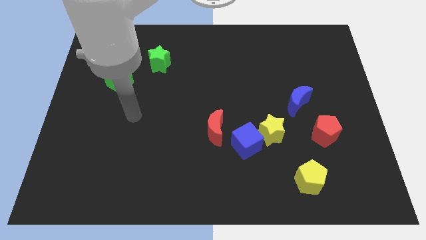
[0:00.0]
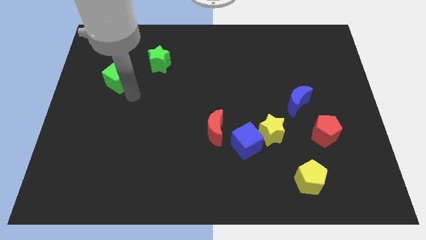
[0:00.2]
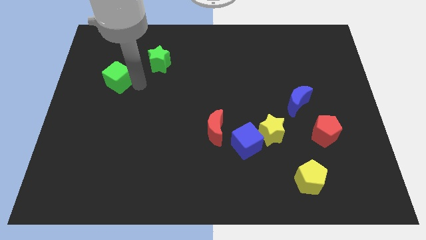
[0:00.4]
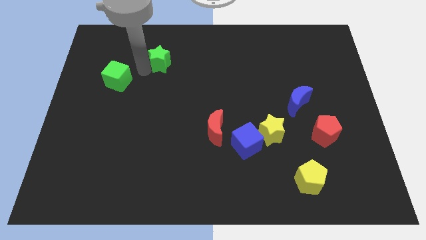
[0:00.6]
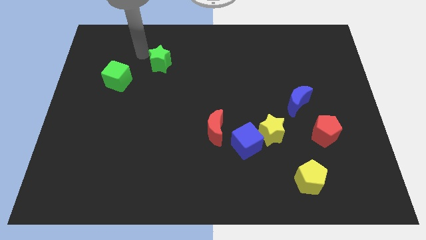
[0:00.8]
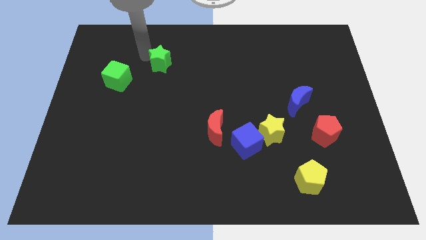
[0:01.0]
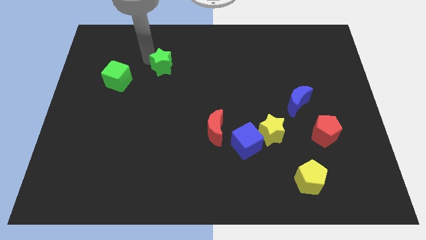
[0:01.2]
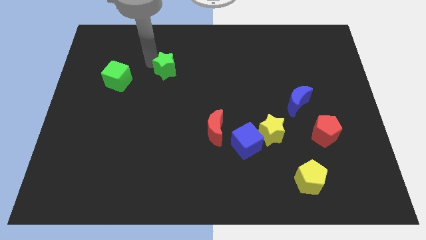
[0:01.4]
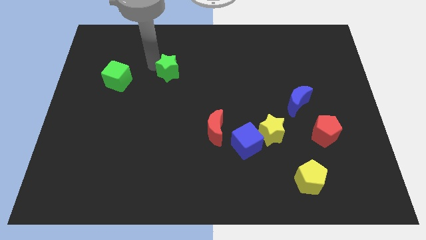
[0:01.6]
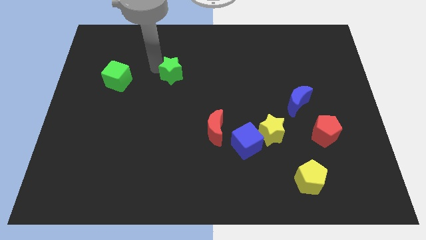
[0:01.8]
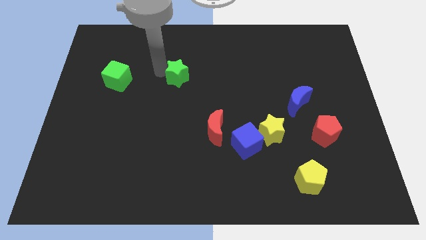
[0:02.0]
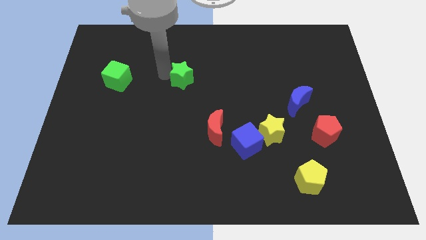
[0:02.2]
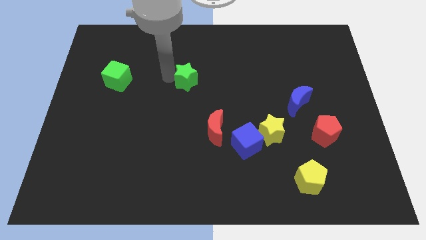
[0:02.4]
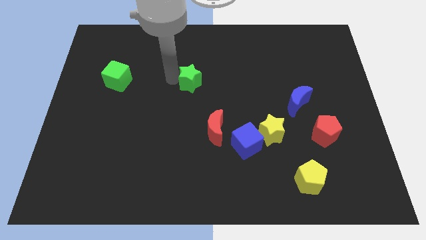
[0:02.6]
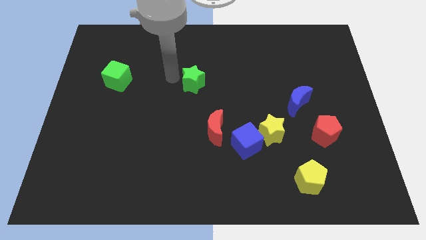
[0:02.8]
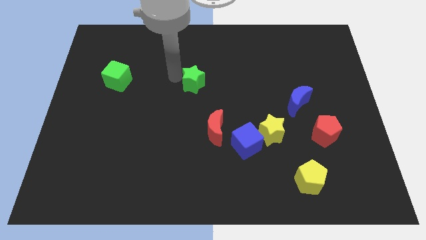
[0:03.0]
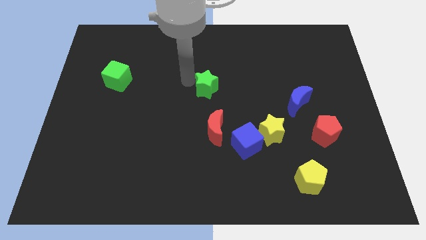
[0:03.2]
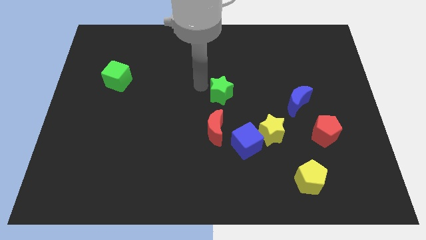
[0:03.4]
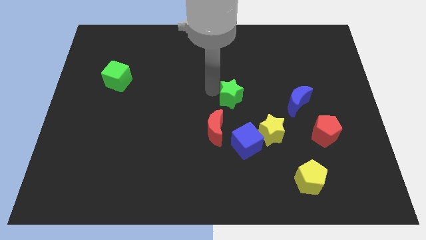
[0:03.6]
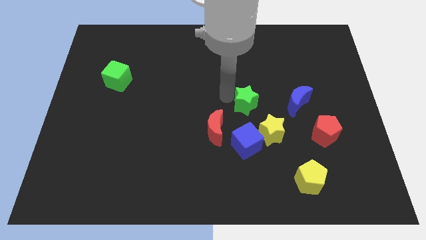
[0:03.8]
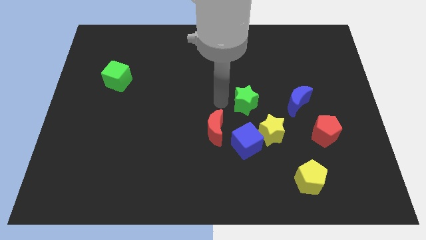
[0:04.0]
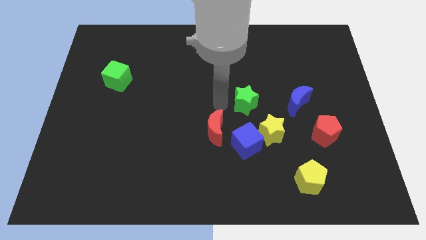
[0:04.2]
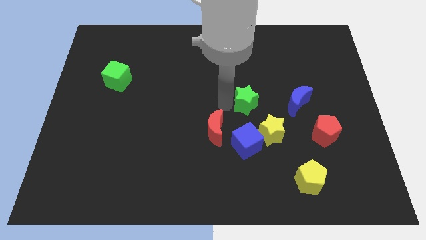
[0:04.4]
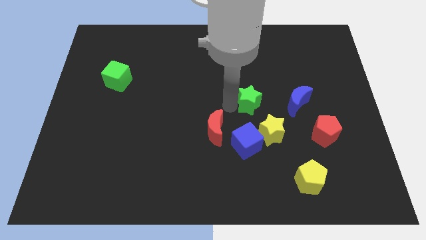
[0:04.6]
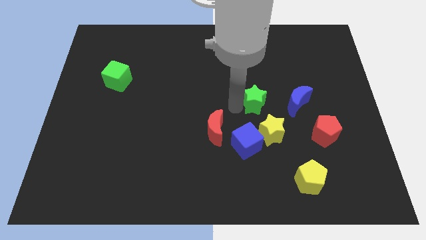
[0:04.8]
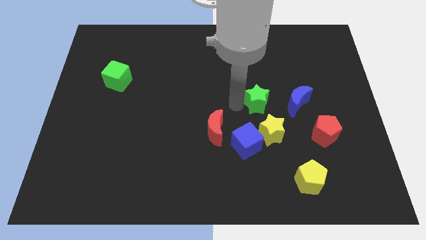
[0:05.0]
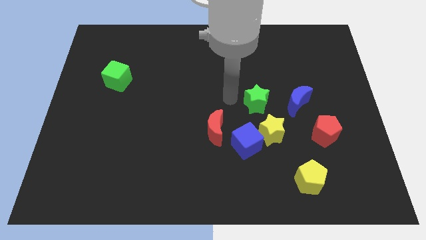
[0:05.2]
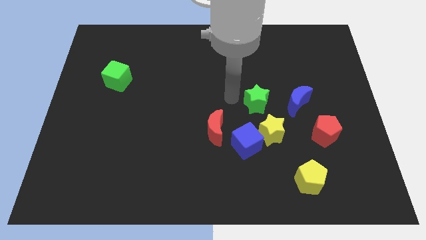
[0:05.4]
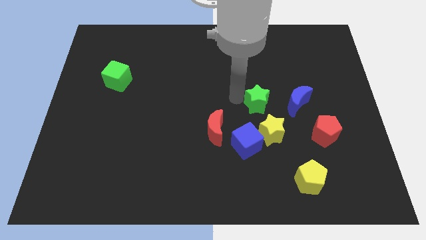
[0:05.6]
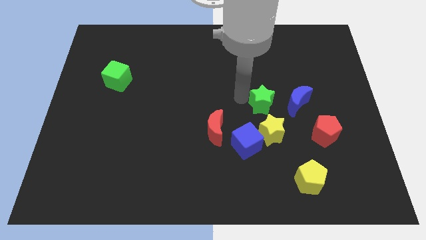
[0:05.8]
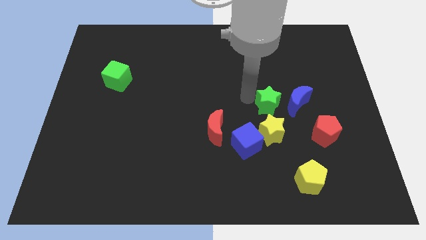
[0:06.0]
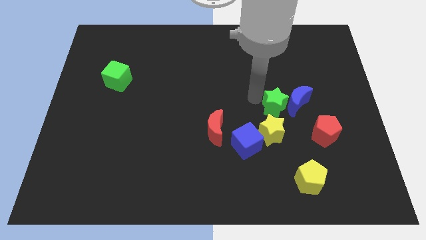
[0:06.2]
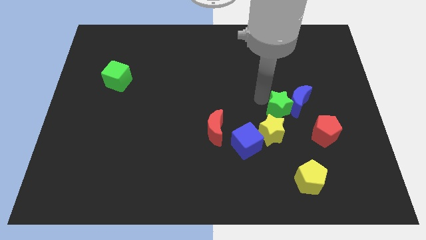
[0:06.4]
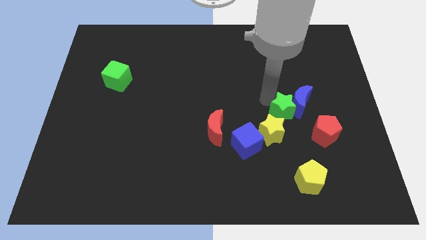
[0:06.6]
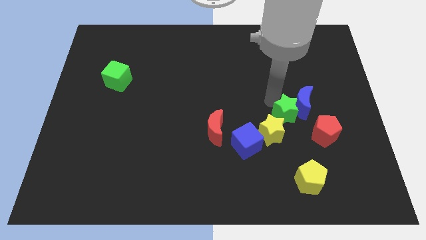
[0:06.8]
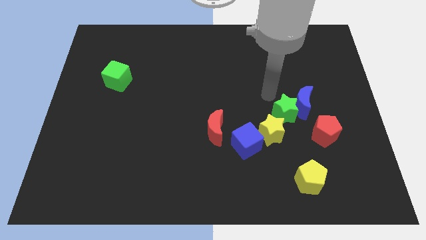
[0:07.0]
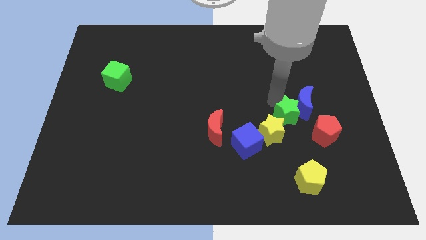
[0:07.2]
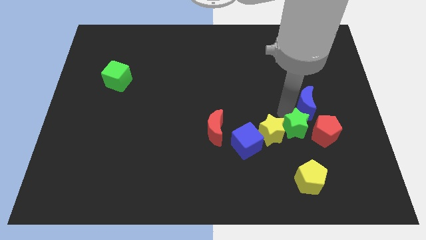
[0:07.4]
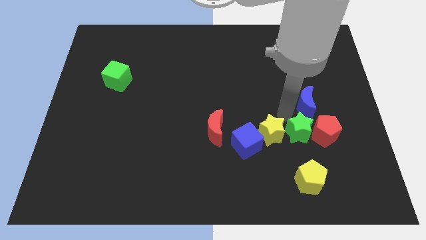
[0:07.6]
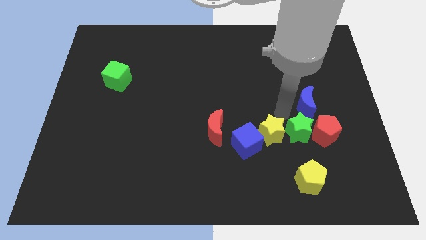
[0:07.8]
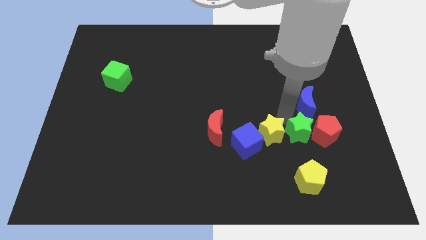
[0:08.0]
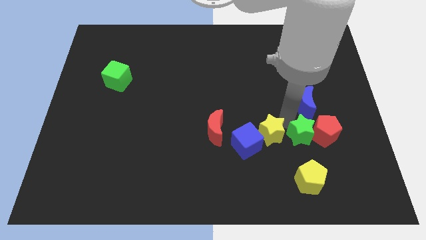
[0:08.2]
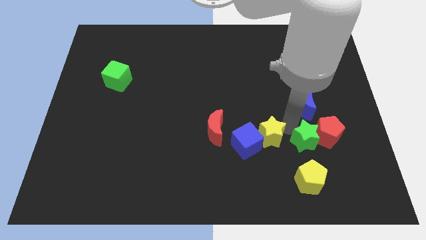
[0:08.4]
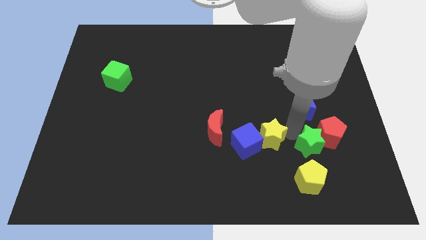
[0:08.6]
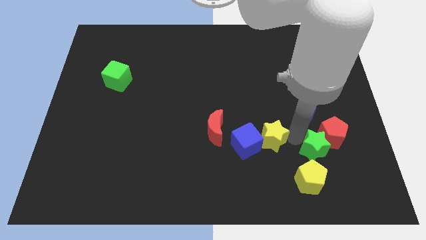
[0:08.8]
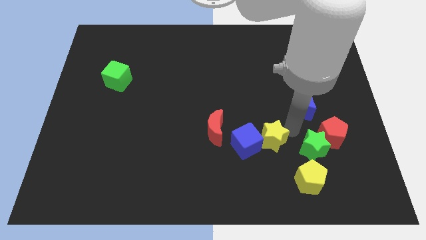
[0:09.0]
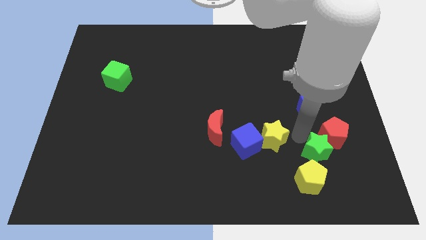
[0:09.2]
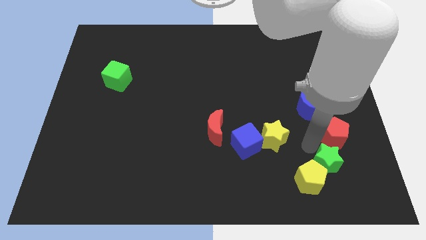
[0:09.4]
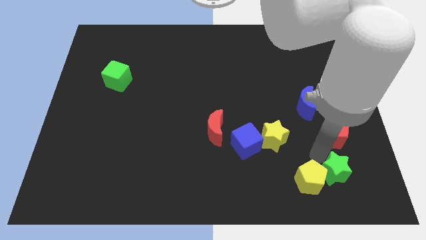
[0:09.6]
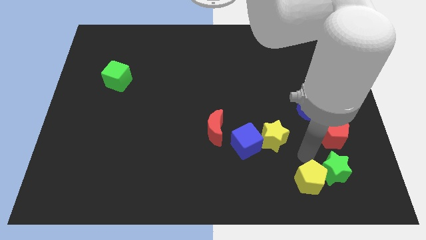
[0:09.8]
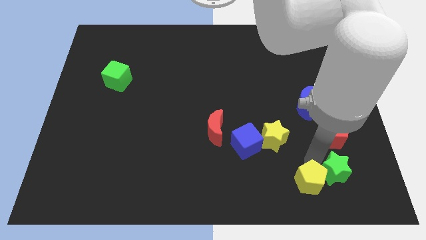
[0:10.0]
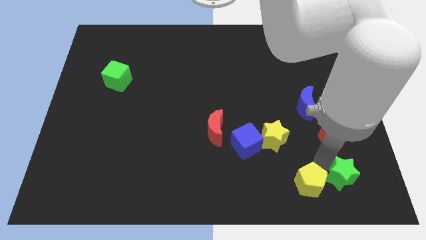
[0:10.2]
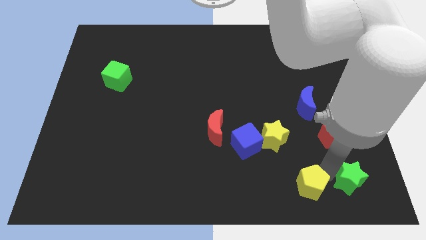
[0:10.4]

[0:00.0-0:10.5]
put the green star to the lower right corner

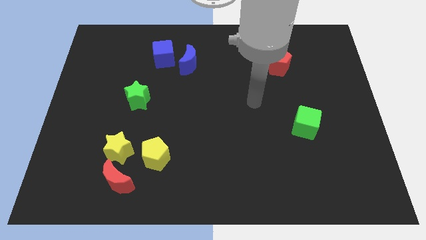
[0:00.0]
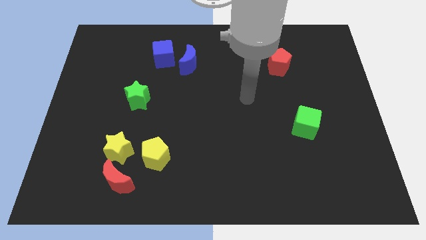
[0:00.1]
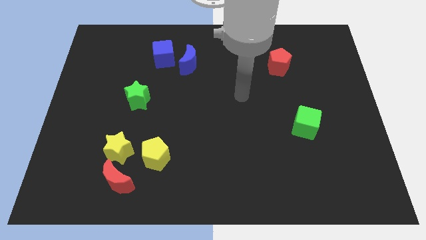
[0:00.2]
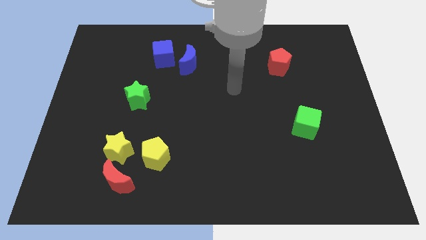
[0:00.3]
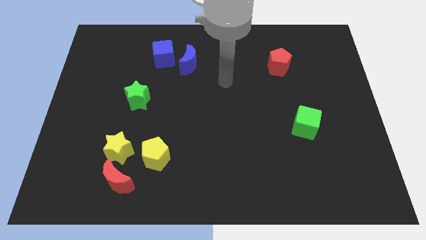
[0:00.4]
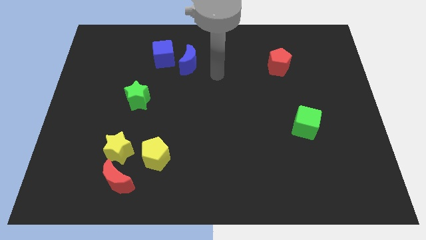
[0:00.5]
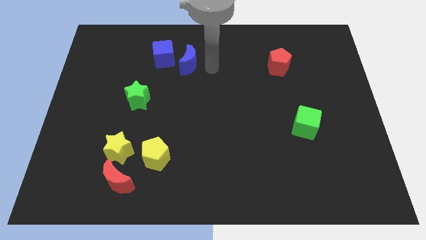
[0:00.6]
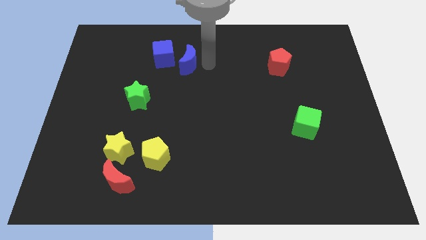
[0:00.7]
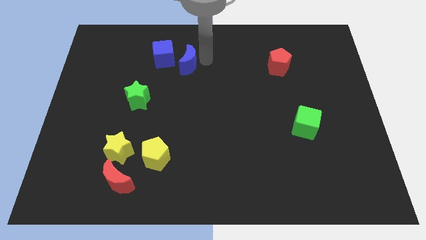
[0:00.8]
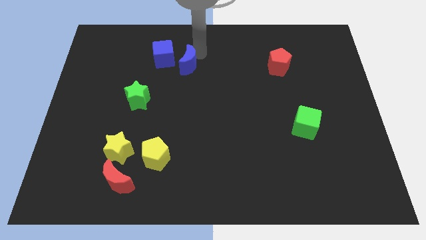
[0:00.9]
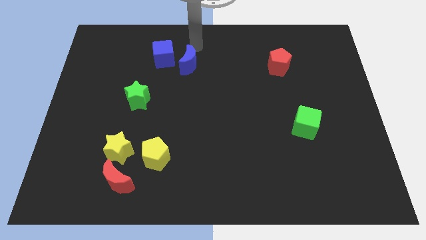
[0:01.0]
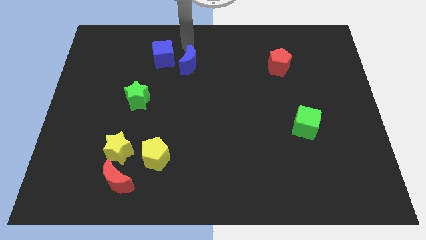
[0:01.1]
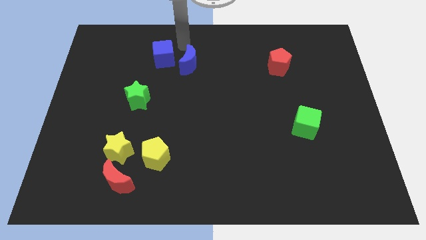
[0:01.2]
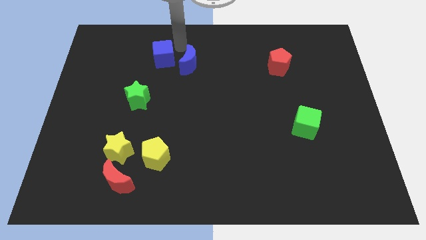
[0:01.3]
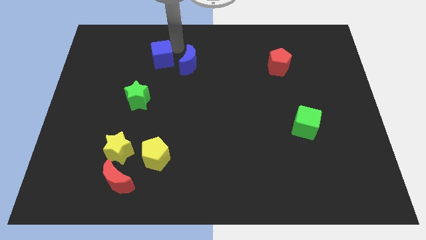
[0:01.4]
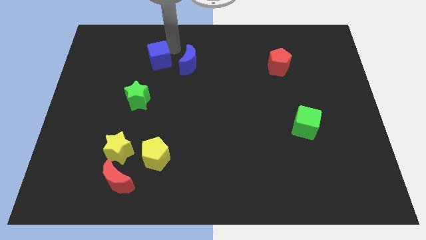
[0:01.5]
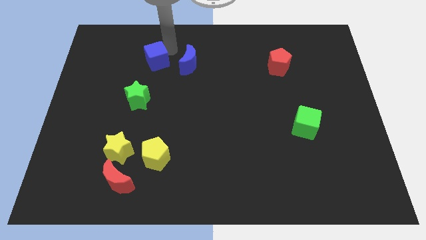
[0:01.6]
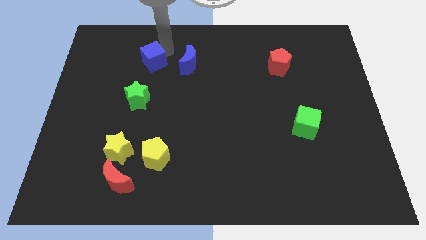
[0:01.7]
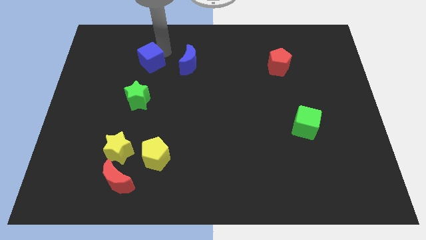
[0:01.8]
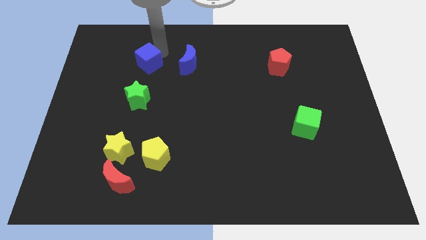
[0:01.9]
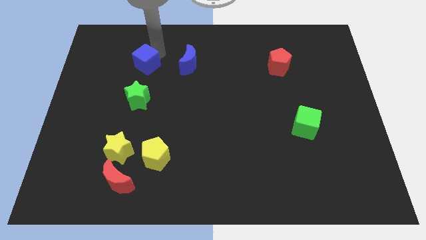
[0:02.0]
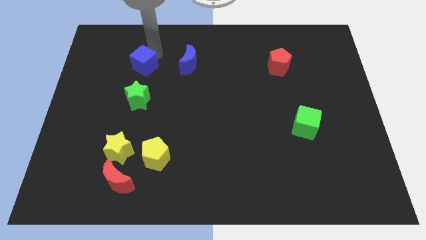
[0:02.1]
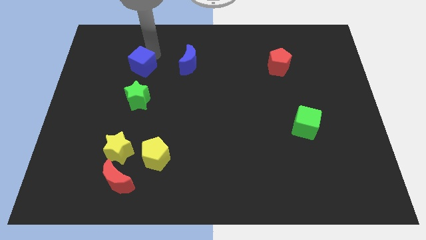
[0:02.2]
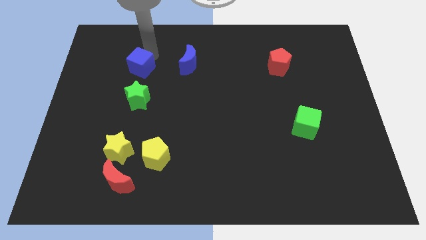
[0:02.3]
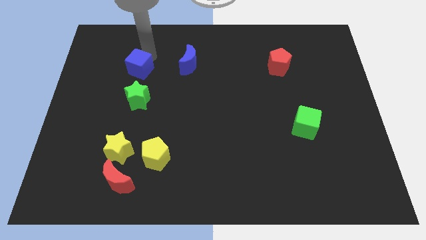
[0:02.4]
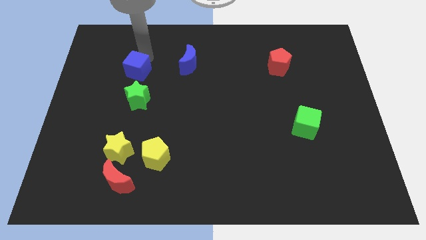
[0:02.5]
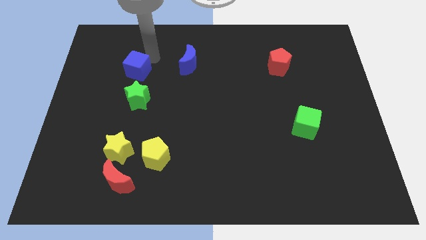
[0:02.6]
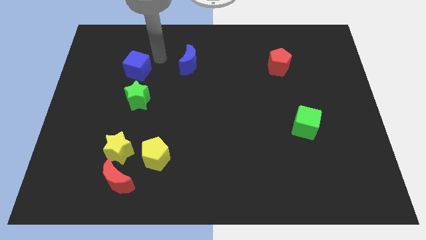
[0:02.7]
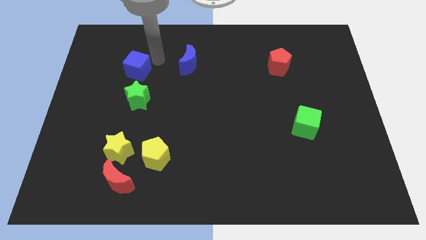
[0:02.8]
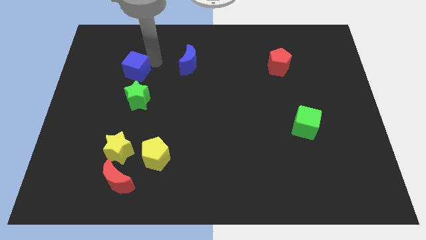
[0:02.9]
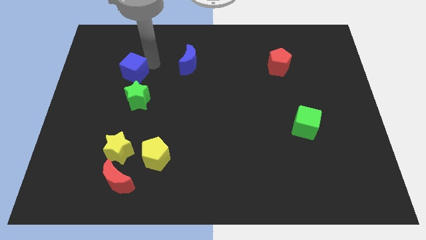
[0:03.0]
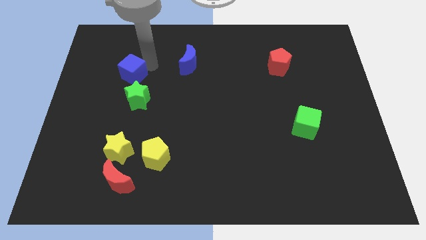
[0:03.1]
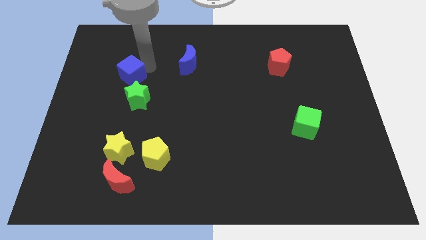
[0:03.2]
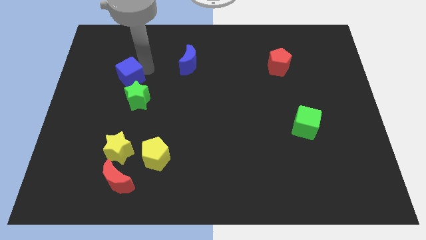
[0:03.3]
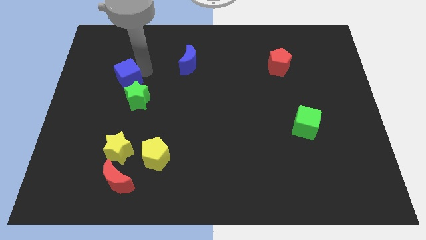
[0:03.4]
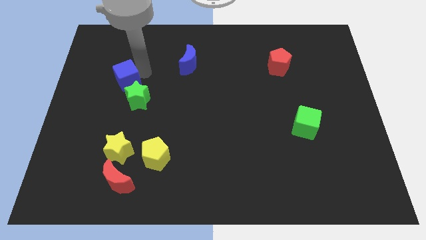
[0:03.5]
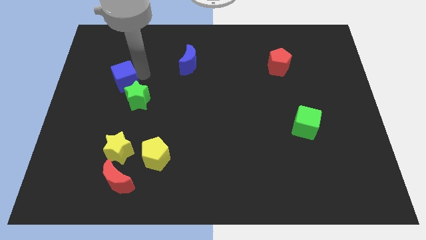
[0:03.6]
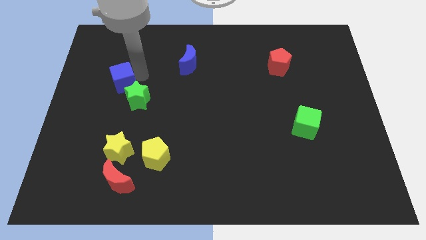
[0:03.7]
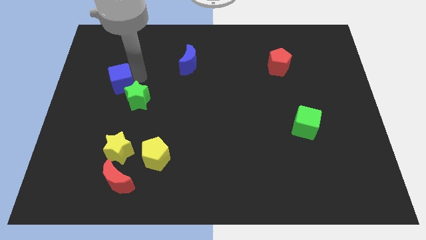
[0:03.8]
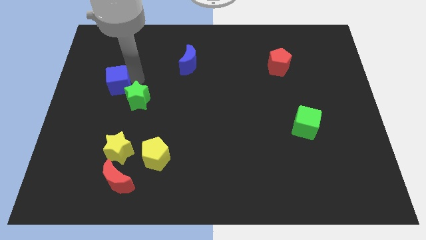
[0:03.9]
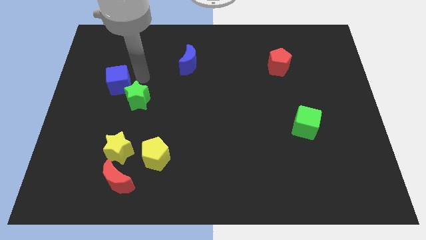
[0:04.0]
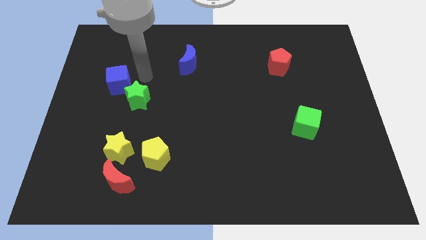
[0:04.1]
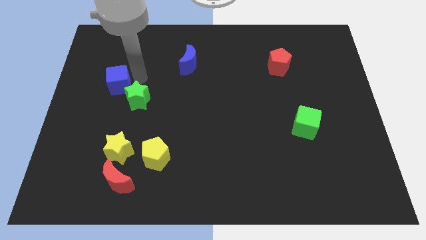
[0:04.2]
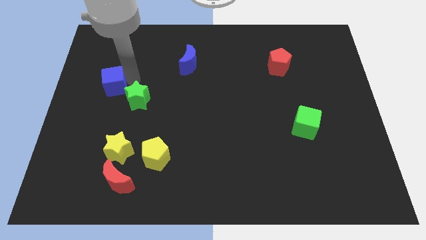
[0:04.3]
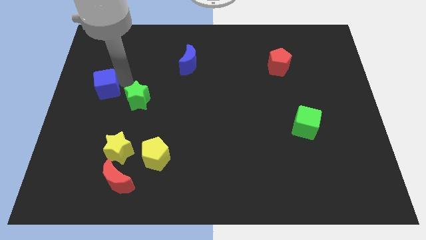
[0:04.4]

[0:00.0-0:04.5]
move the blue cube to the left side
